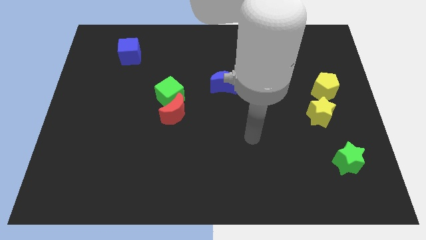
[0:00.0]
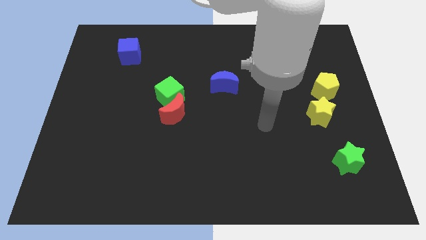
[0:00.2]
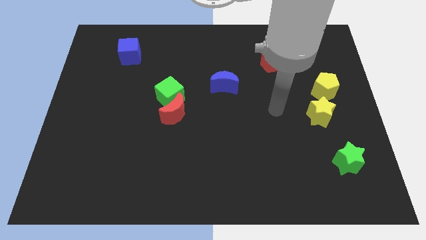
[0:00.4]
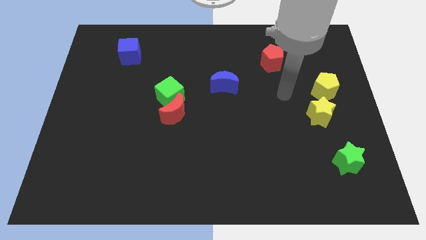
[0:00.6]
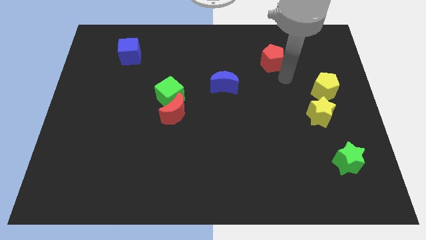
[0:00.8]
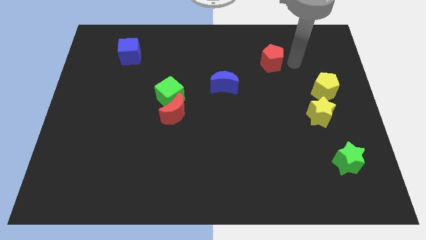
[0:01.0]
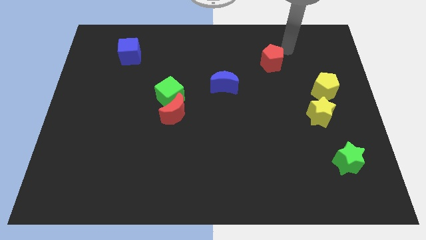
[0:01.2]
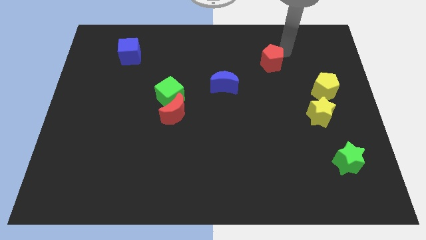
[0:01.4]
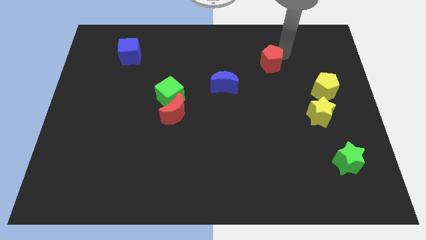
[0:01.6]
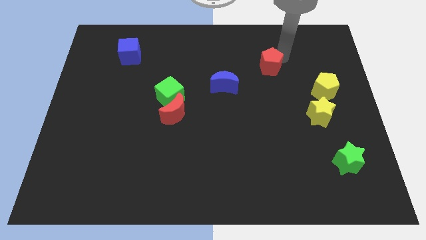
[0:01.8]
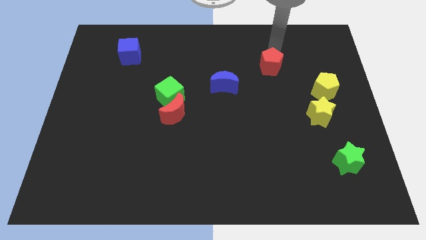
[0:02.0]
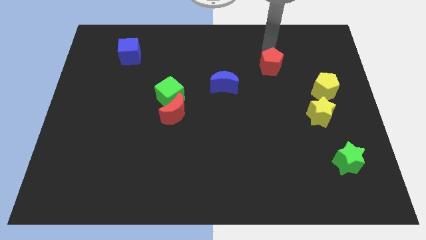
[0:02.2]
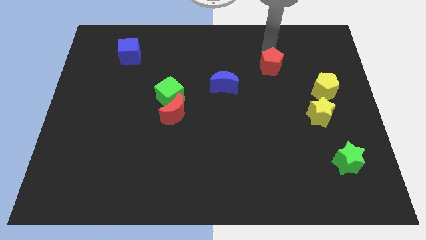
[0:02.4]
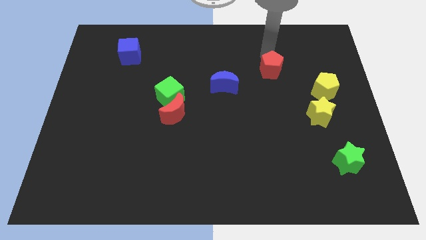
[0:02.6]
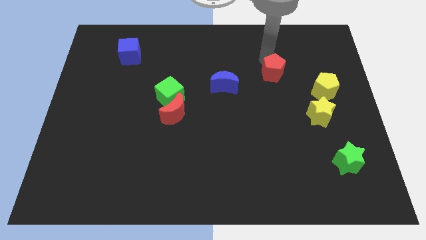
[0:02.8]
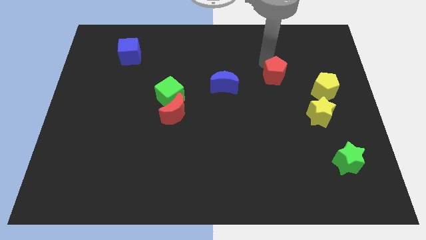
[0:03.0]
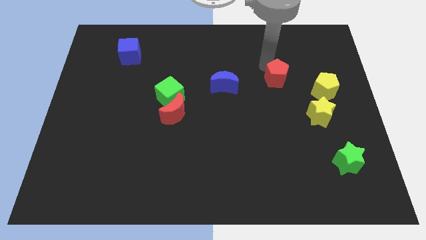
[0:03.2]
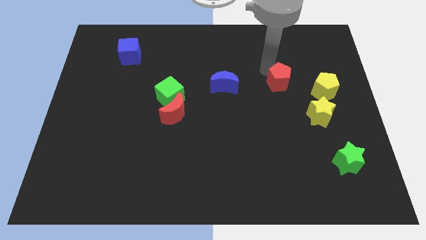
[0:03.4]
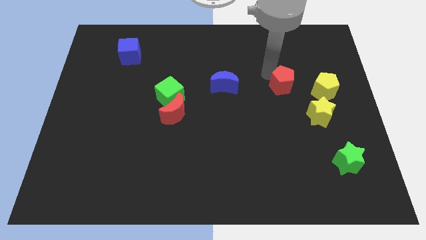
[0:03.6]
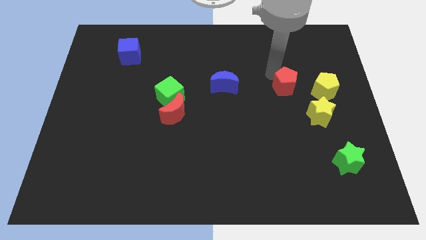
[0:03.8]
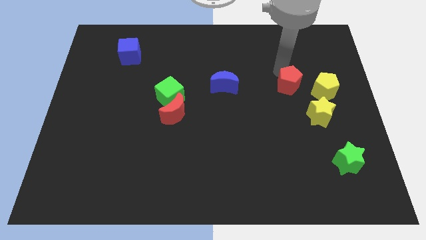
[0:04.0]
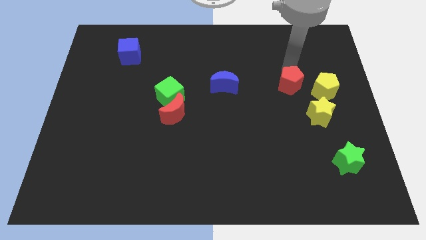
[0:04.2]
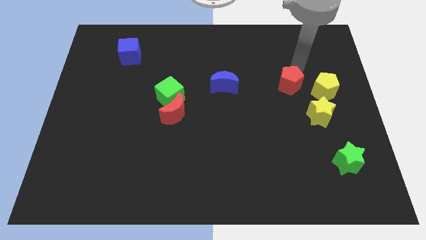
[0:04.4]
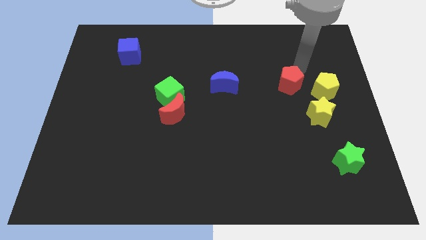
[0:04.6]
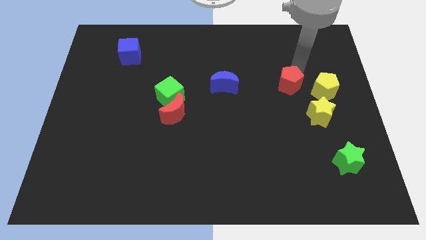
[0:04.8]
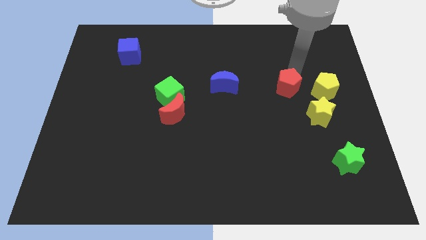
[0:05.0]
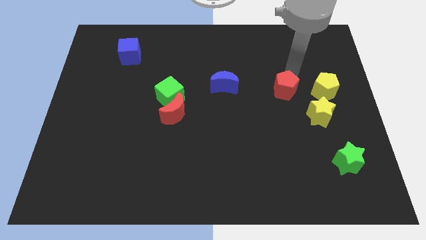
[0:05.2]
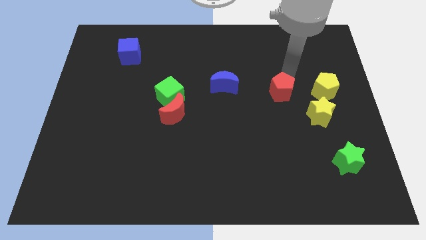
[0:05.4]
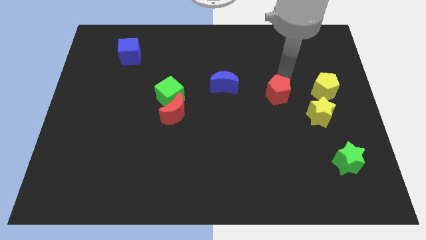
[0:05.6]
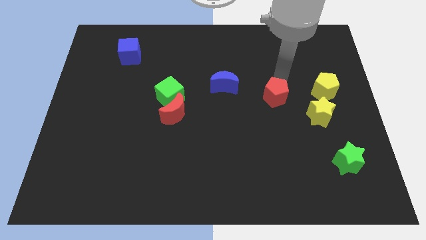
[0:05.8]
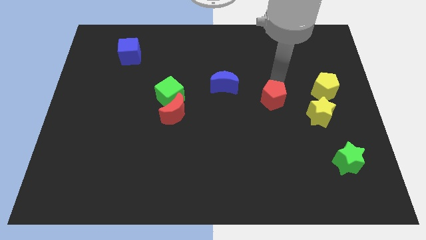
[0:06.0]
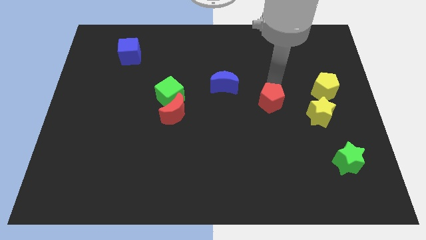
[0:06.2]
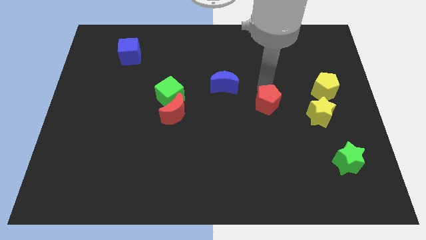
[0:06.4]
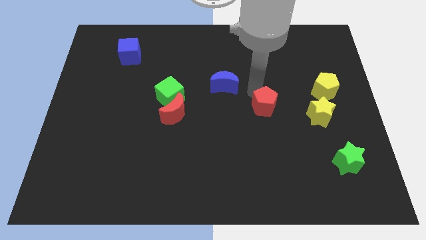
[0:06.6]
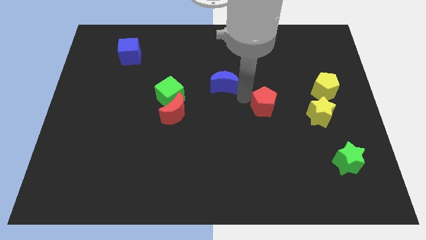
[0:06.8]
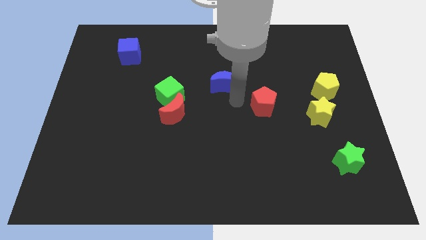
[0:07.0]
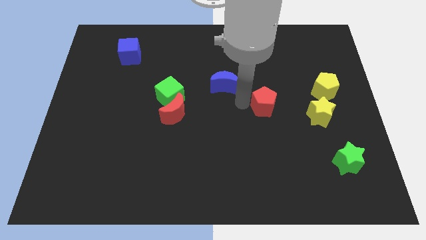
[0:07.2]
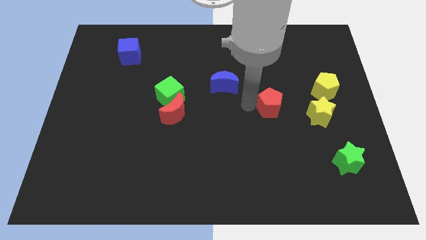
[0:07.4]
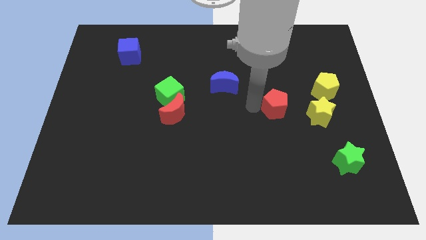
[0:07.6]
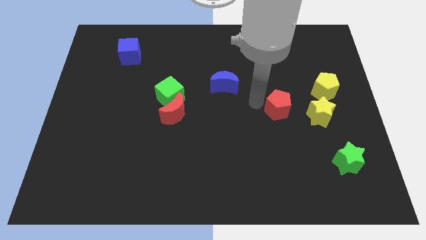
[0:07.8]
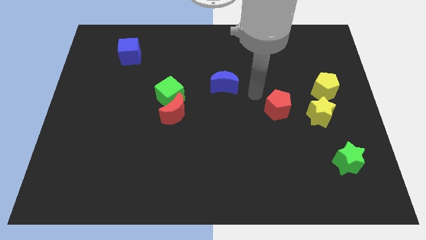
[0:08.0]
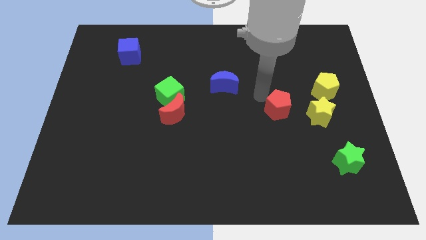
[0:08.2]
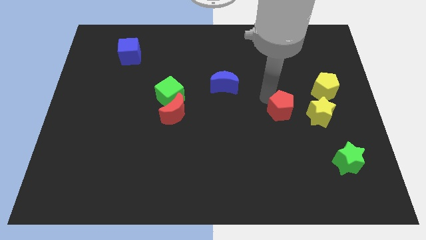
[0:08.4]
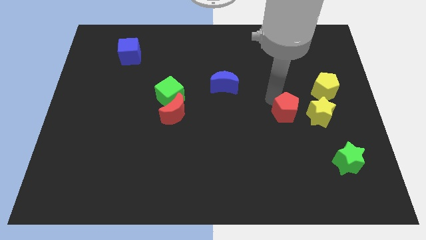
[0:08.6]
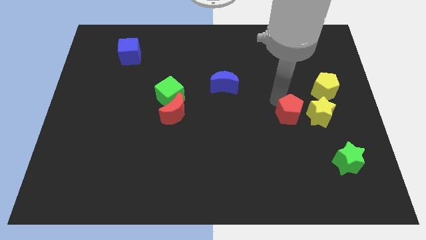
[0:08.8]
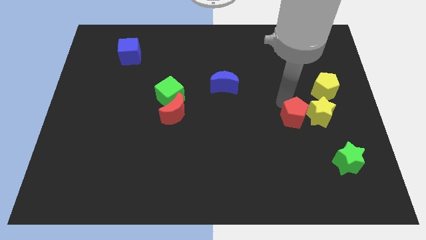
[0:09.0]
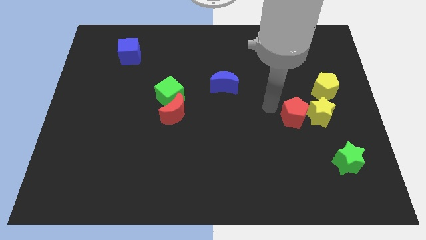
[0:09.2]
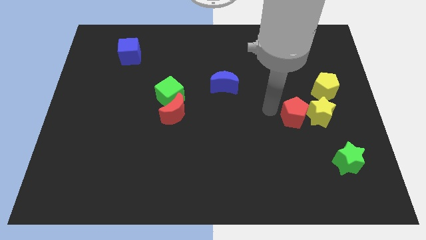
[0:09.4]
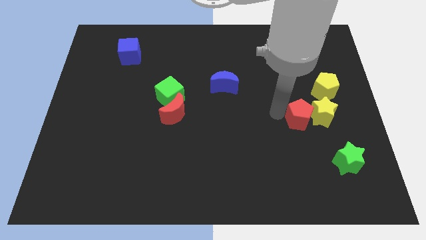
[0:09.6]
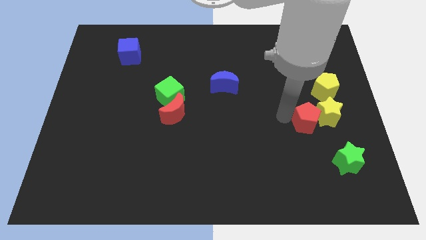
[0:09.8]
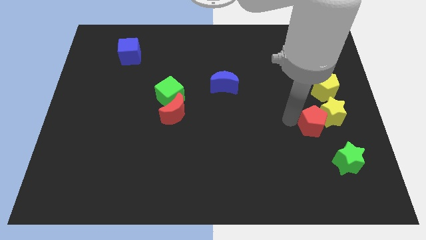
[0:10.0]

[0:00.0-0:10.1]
put the red pentagon to the bottom side of the yellow pentagon

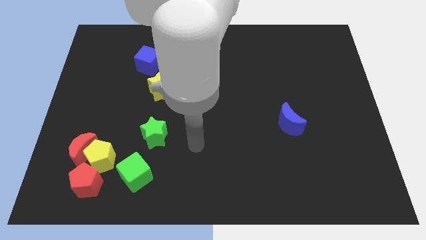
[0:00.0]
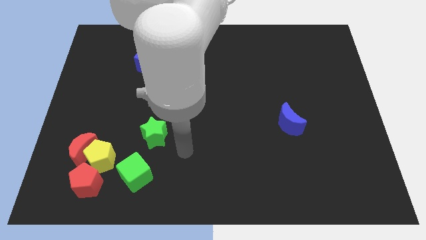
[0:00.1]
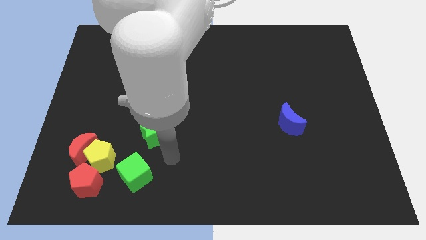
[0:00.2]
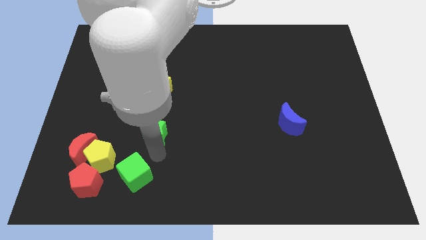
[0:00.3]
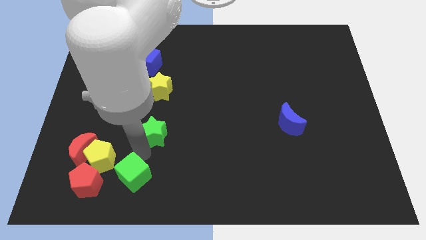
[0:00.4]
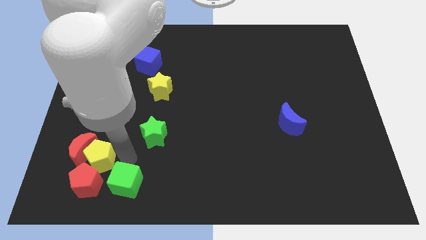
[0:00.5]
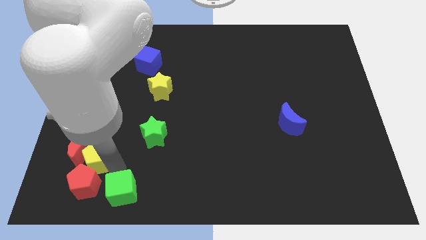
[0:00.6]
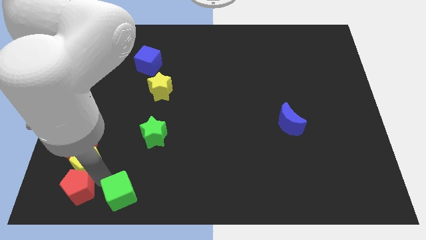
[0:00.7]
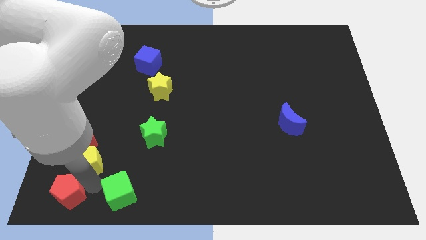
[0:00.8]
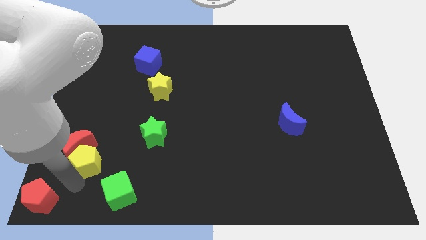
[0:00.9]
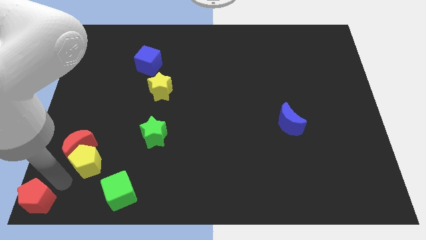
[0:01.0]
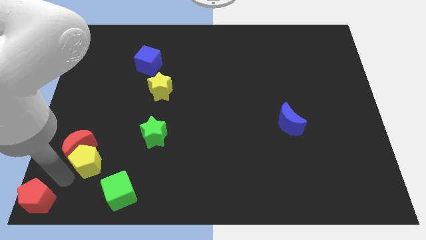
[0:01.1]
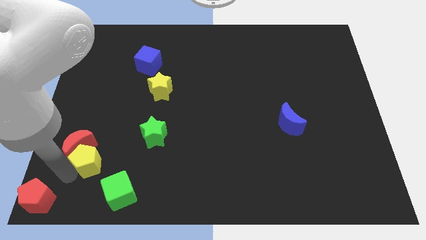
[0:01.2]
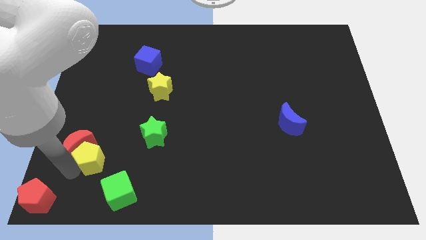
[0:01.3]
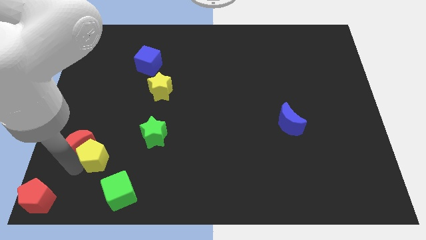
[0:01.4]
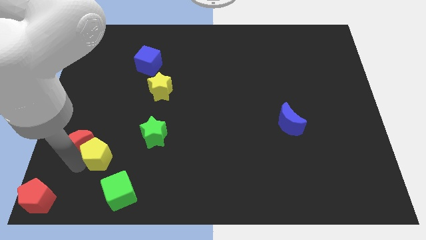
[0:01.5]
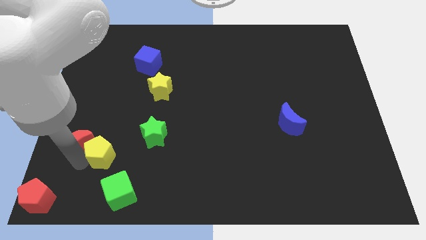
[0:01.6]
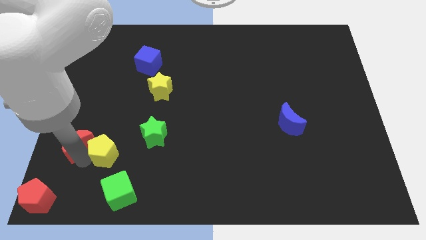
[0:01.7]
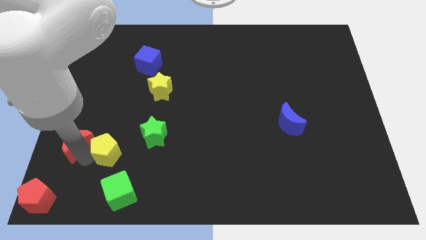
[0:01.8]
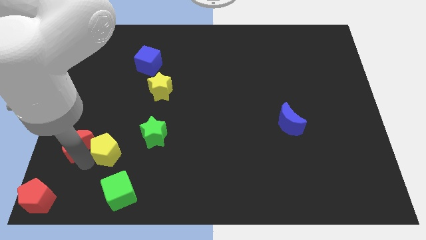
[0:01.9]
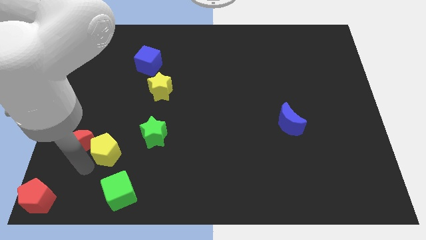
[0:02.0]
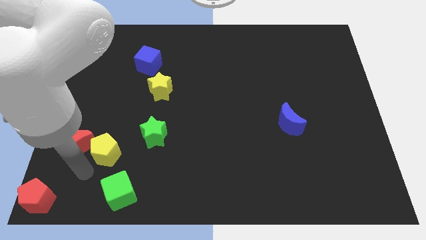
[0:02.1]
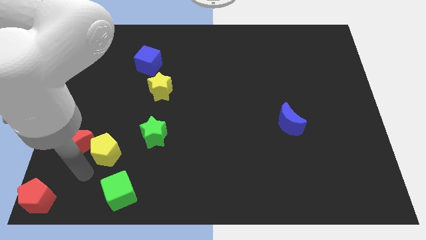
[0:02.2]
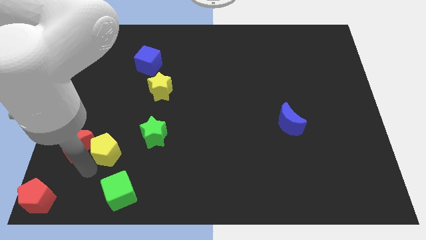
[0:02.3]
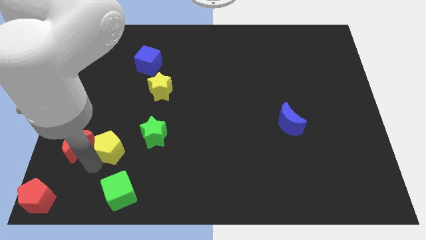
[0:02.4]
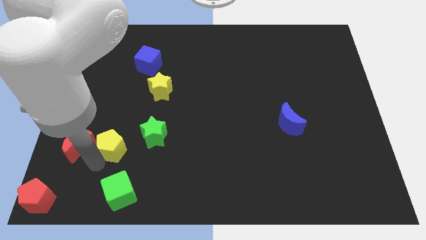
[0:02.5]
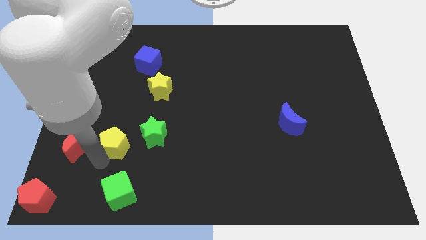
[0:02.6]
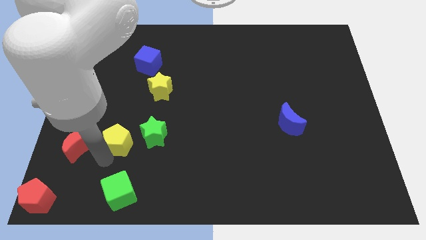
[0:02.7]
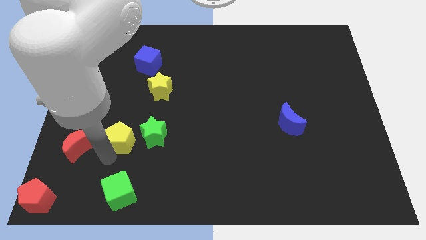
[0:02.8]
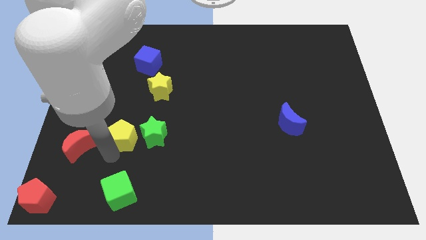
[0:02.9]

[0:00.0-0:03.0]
slide the yellow pentagon to the top left of the green star
